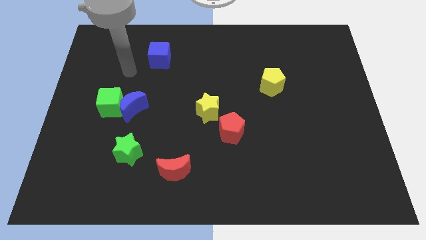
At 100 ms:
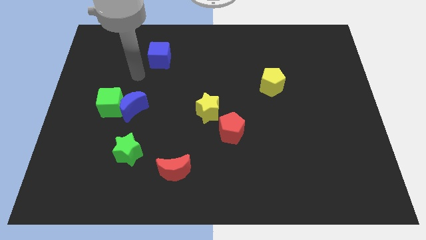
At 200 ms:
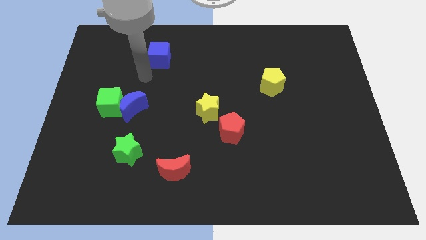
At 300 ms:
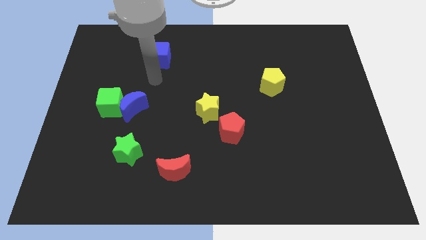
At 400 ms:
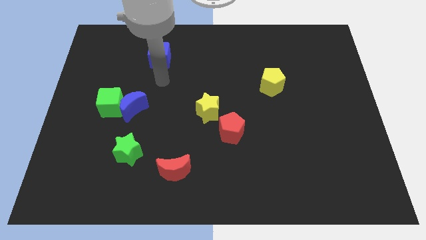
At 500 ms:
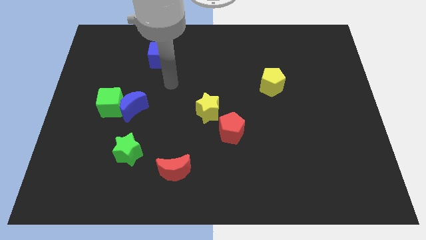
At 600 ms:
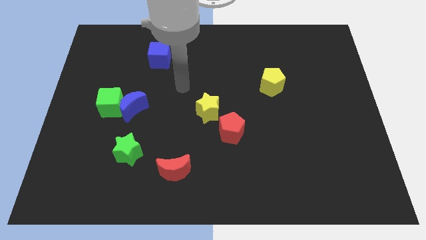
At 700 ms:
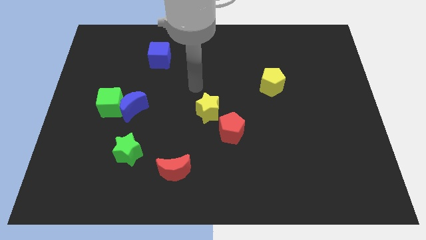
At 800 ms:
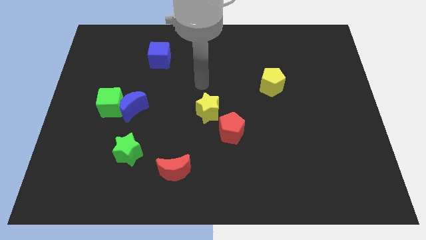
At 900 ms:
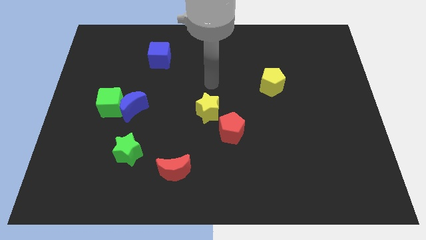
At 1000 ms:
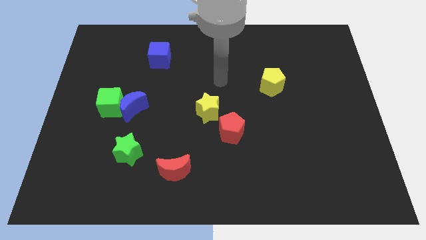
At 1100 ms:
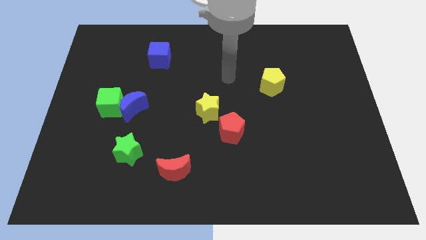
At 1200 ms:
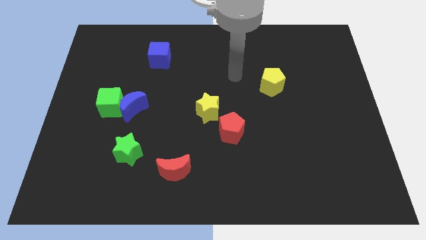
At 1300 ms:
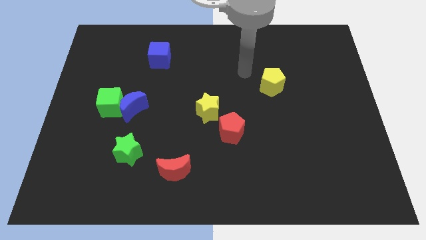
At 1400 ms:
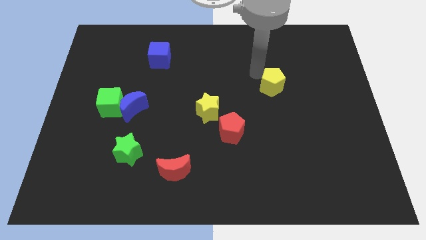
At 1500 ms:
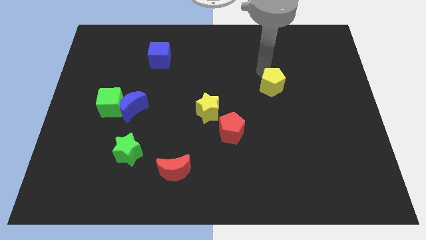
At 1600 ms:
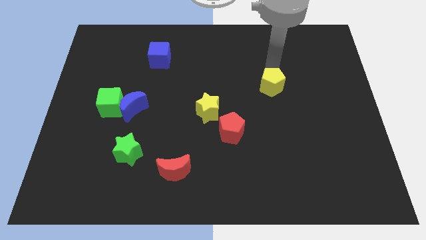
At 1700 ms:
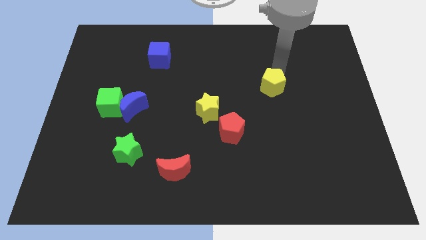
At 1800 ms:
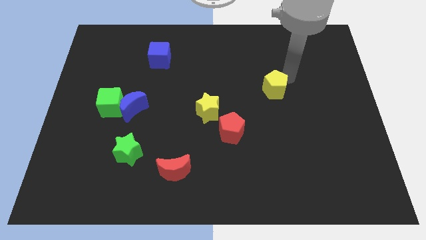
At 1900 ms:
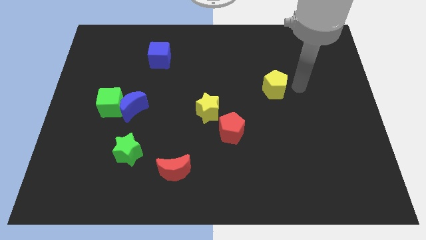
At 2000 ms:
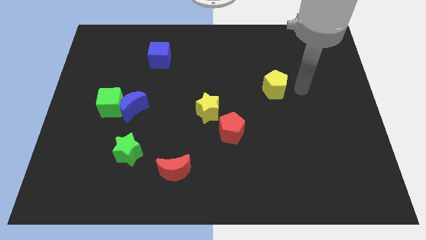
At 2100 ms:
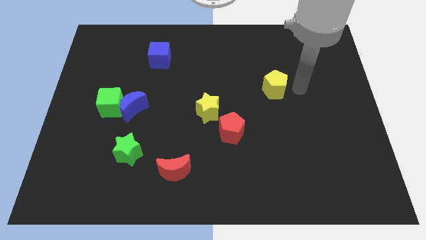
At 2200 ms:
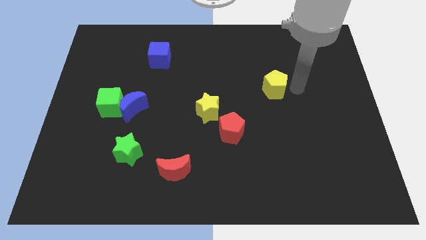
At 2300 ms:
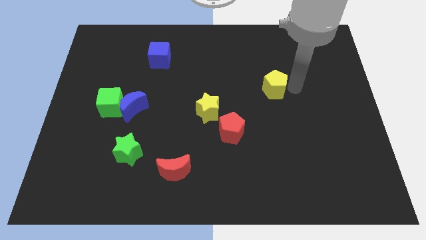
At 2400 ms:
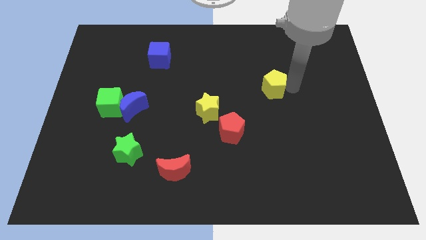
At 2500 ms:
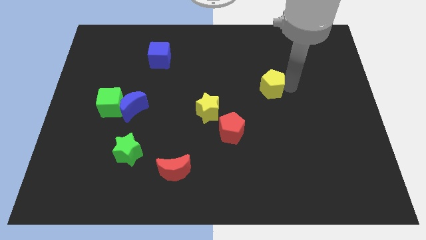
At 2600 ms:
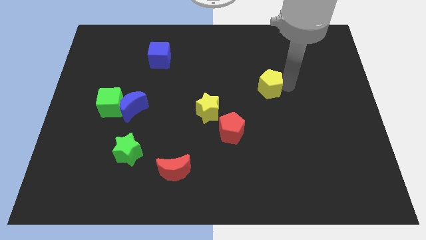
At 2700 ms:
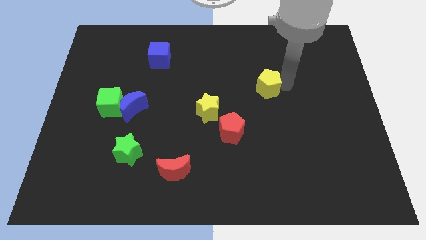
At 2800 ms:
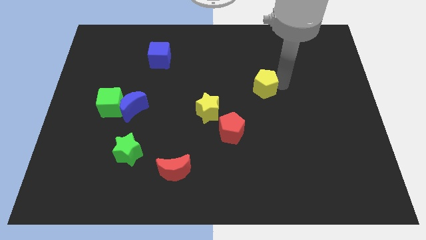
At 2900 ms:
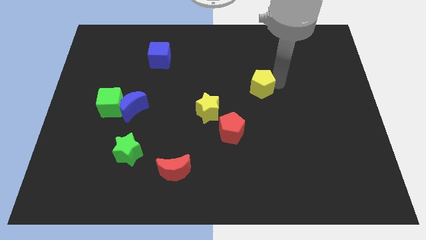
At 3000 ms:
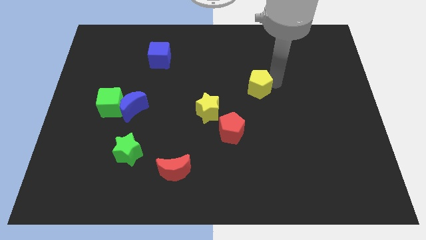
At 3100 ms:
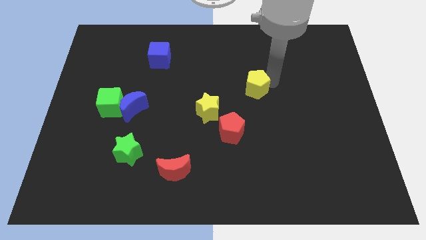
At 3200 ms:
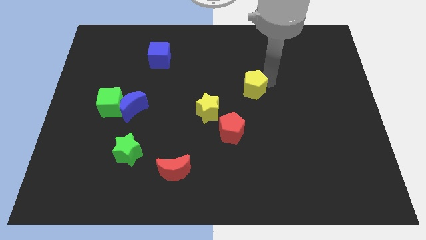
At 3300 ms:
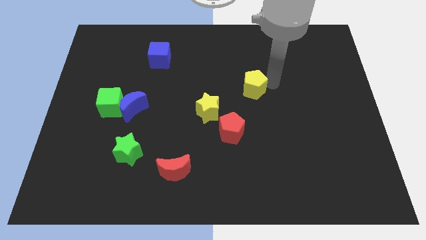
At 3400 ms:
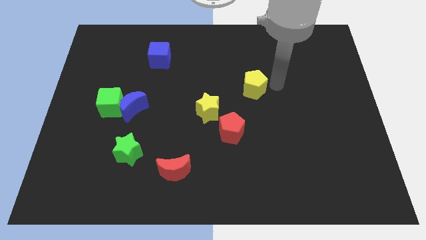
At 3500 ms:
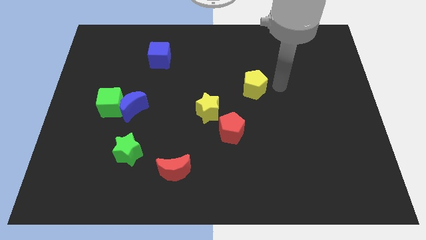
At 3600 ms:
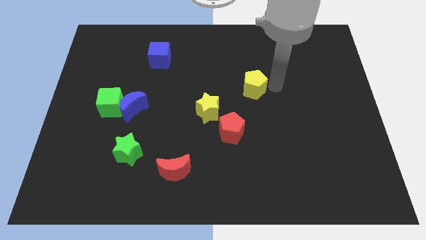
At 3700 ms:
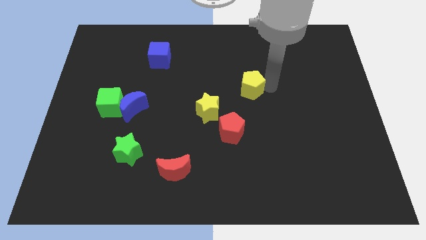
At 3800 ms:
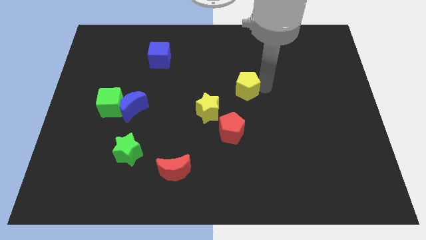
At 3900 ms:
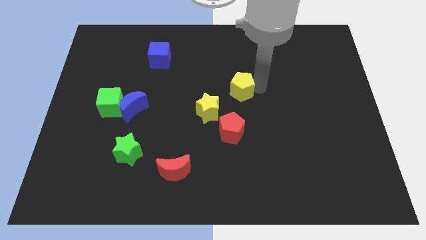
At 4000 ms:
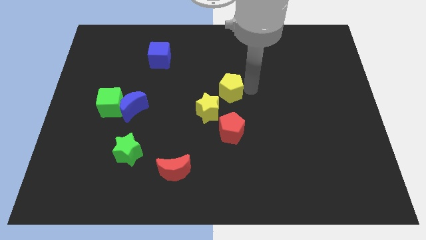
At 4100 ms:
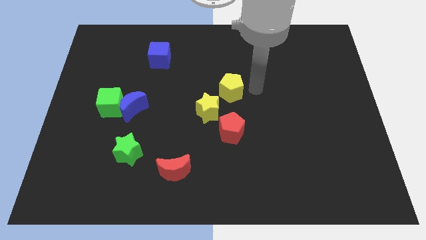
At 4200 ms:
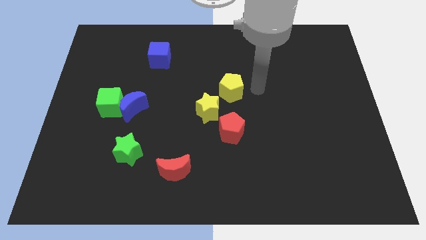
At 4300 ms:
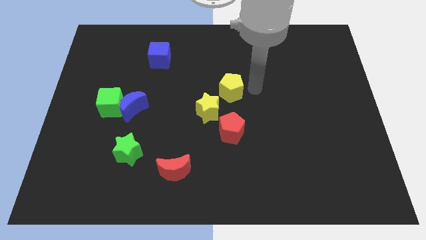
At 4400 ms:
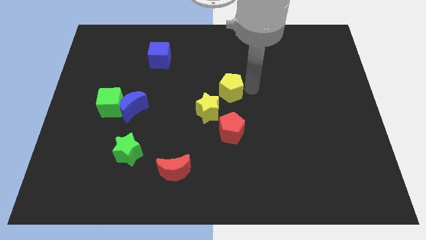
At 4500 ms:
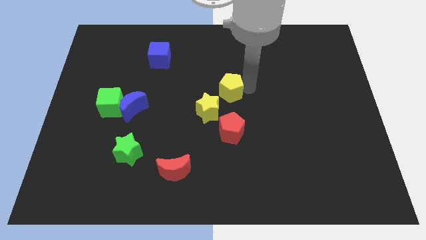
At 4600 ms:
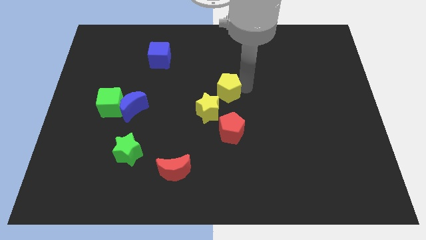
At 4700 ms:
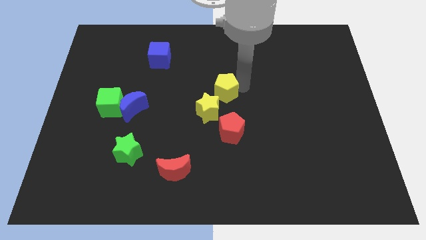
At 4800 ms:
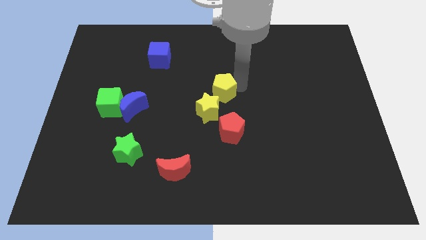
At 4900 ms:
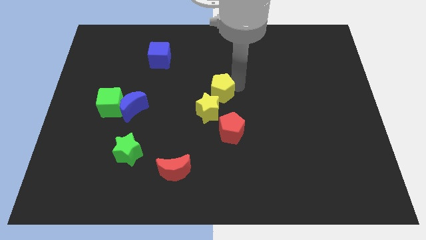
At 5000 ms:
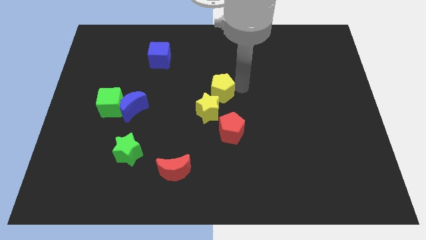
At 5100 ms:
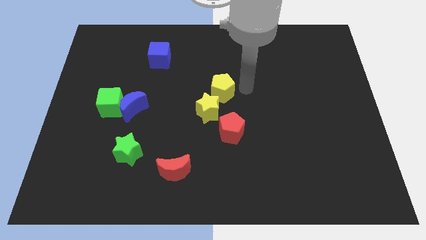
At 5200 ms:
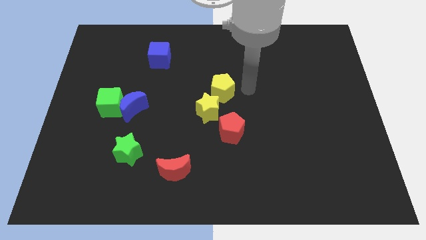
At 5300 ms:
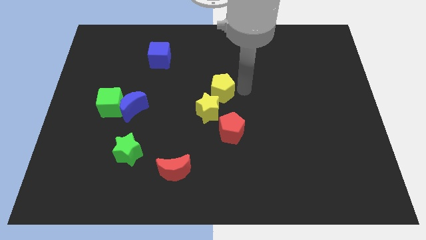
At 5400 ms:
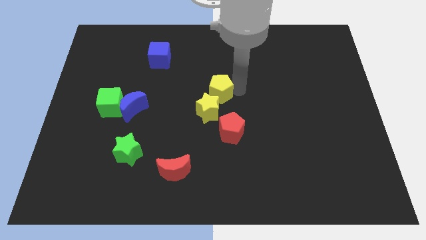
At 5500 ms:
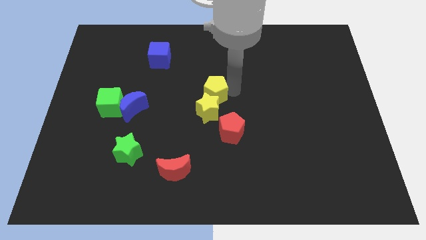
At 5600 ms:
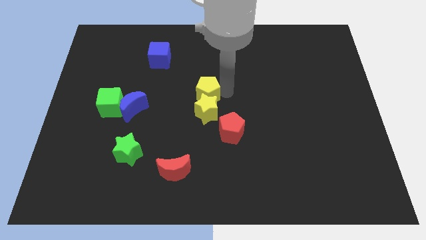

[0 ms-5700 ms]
push the yellow pentagon to the top left of the yellow star

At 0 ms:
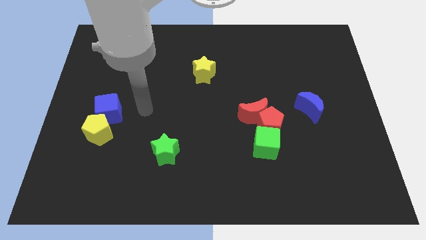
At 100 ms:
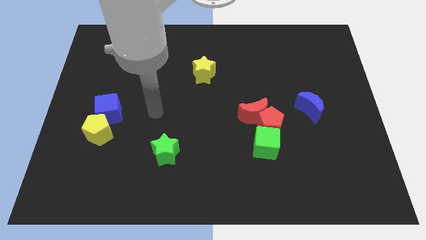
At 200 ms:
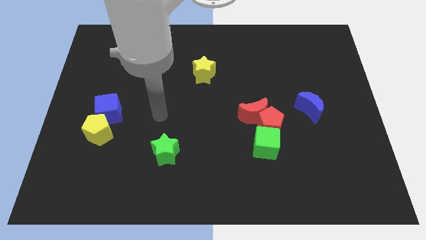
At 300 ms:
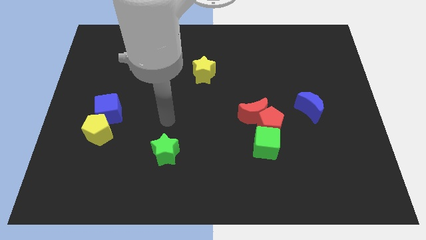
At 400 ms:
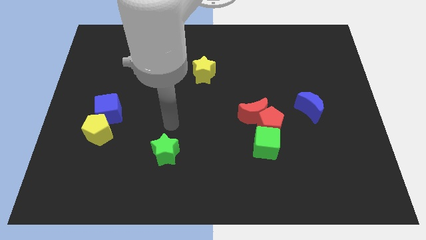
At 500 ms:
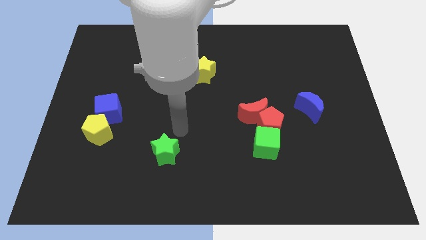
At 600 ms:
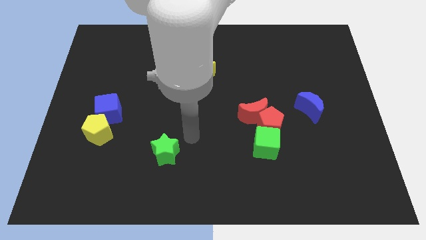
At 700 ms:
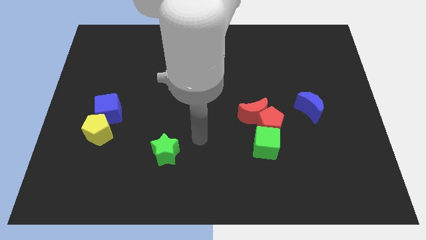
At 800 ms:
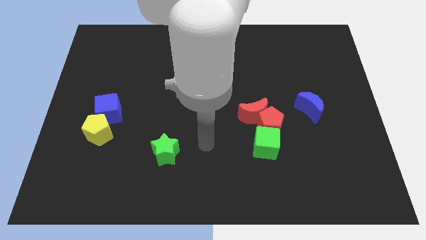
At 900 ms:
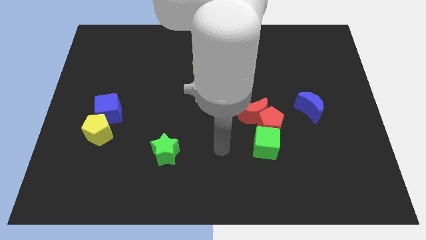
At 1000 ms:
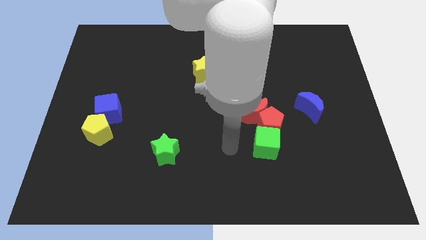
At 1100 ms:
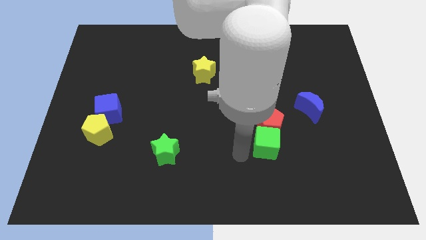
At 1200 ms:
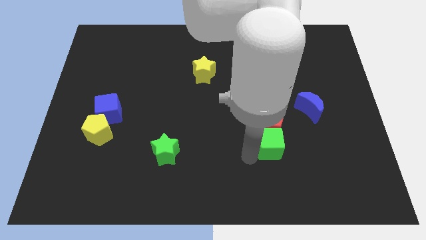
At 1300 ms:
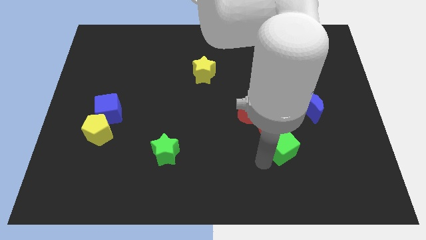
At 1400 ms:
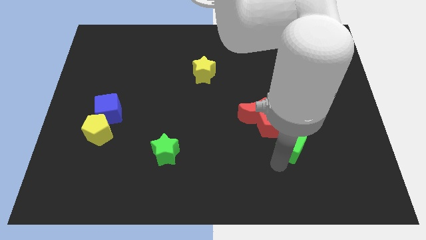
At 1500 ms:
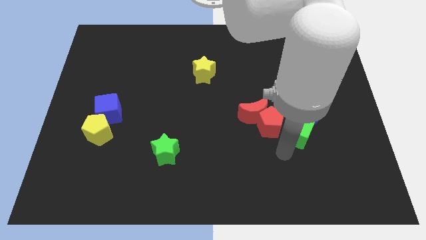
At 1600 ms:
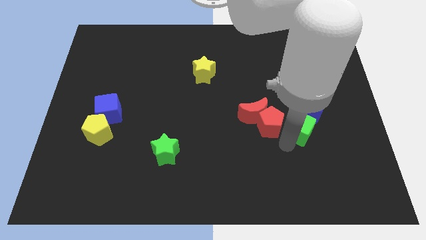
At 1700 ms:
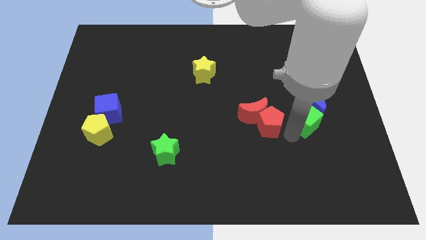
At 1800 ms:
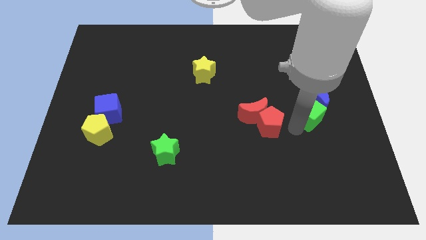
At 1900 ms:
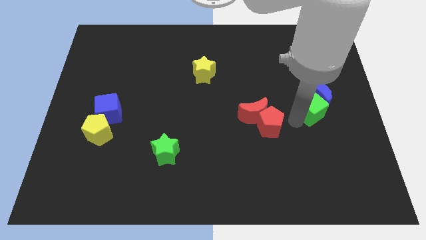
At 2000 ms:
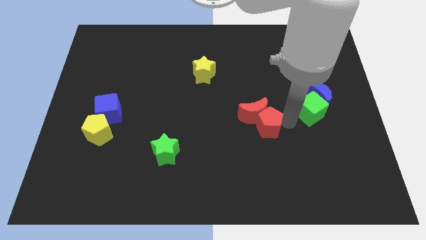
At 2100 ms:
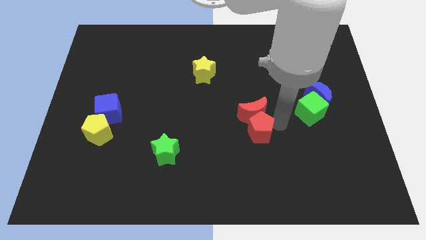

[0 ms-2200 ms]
push the red pentagon diagonally down and to the left of the red moon
